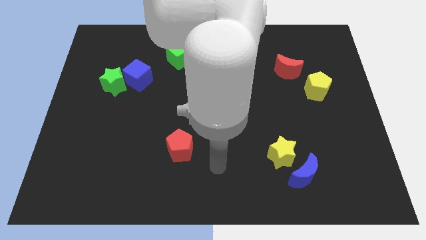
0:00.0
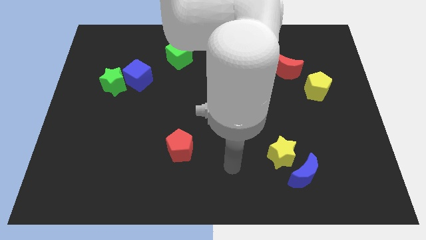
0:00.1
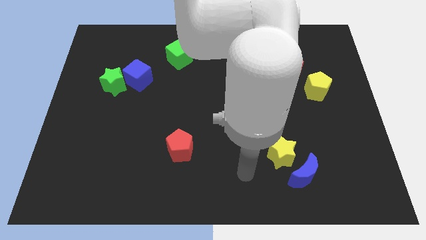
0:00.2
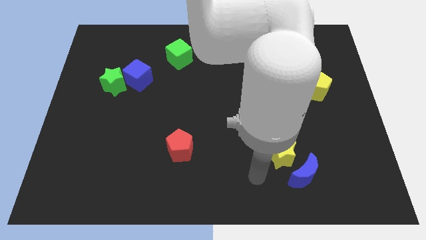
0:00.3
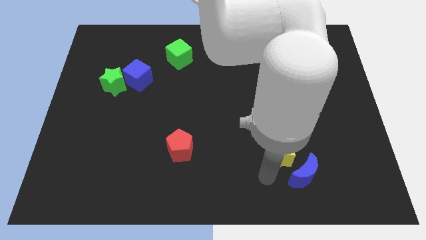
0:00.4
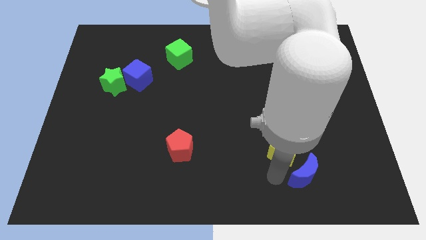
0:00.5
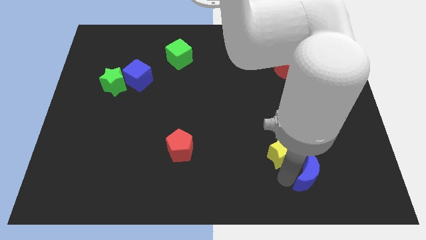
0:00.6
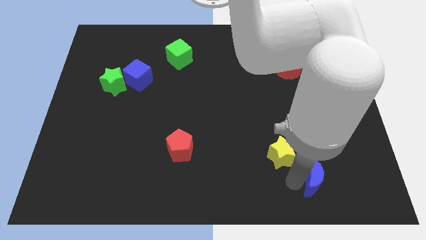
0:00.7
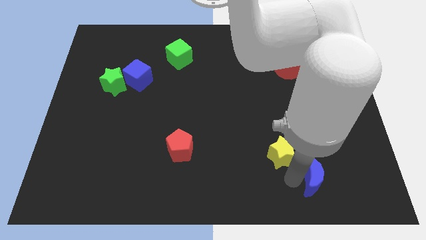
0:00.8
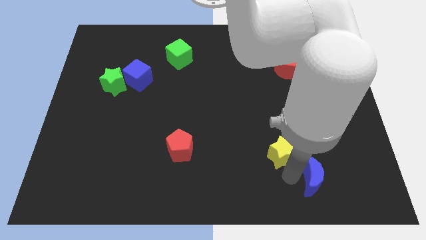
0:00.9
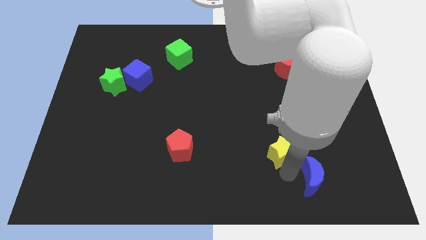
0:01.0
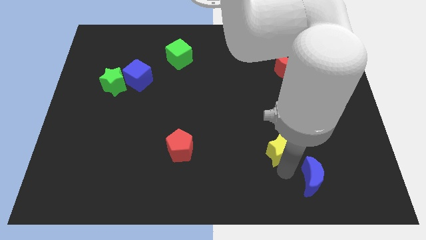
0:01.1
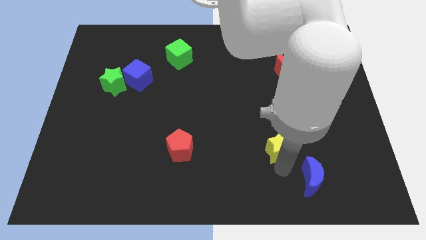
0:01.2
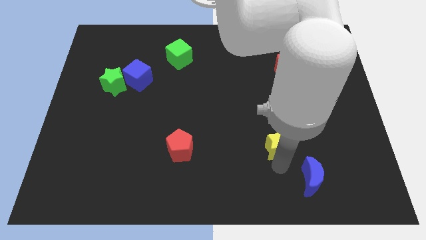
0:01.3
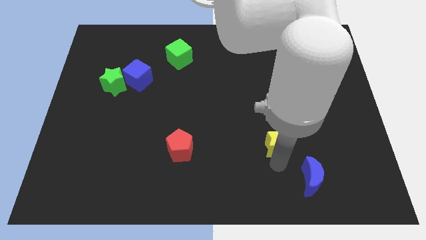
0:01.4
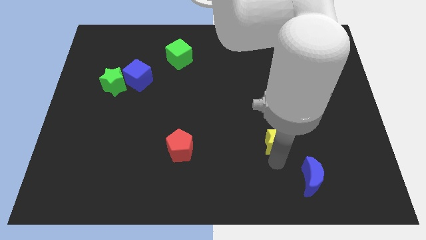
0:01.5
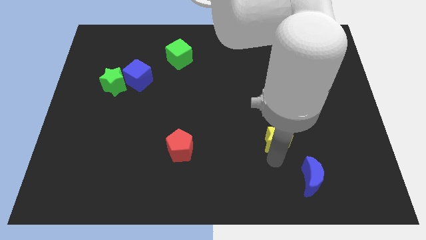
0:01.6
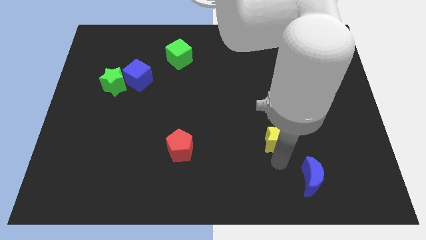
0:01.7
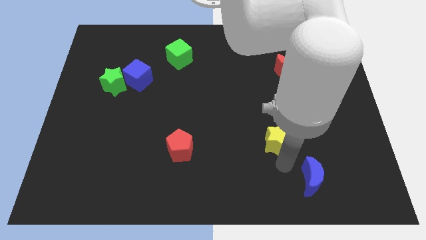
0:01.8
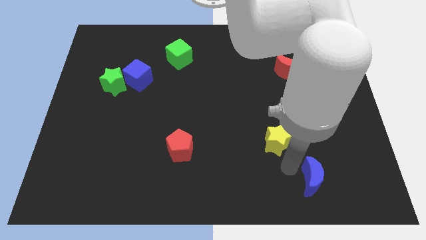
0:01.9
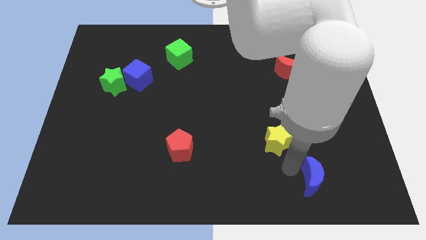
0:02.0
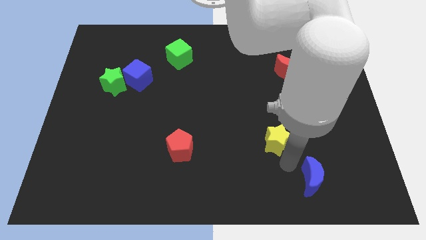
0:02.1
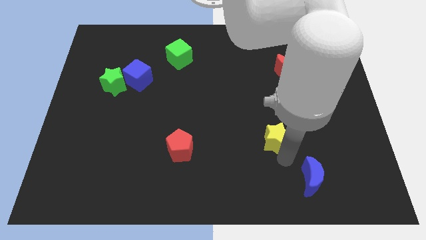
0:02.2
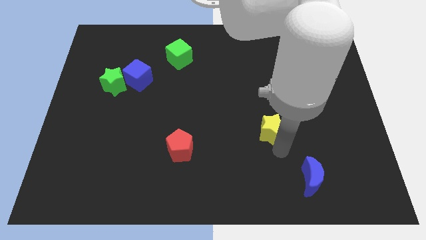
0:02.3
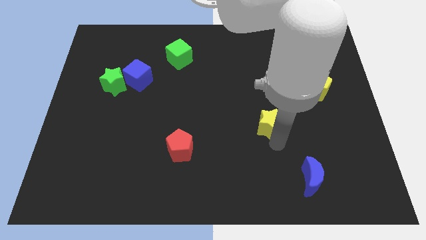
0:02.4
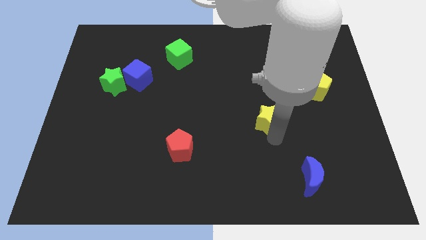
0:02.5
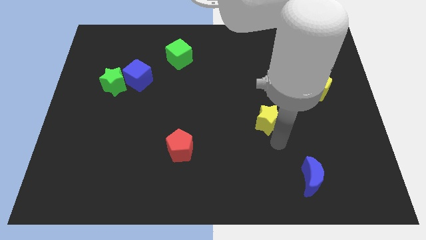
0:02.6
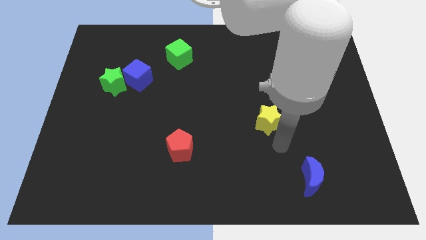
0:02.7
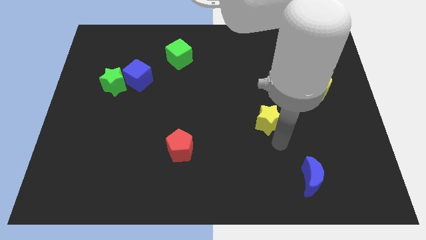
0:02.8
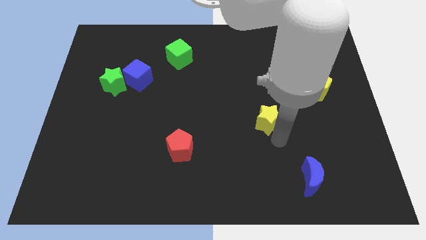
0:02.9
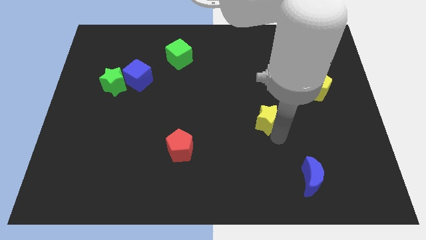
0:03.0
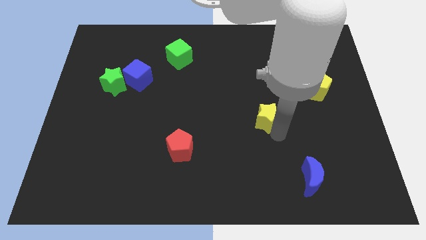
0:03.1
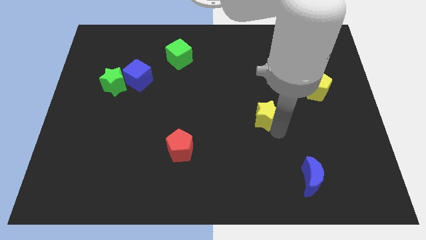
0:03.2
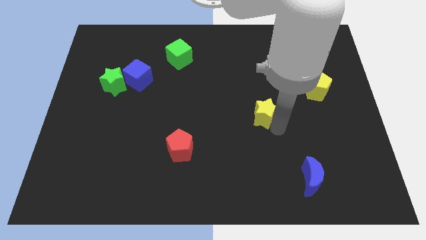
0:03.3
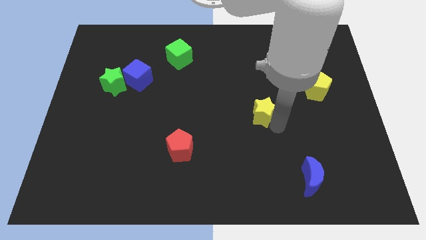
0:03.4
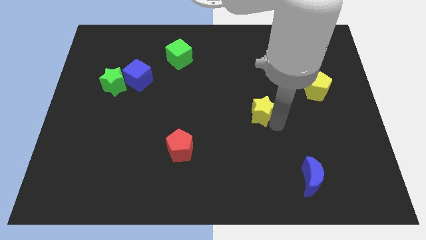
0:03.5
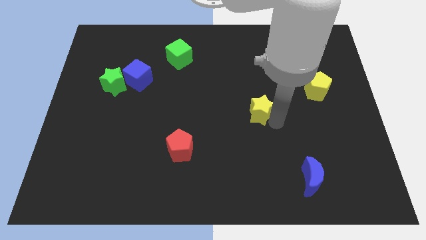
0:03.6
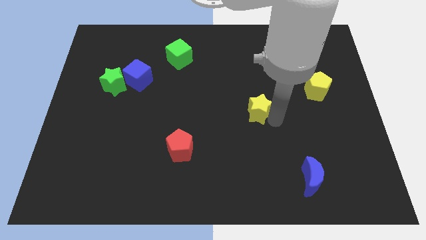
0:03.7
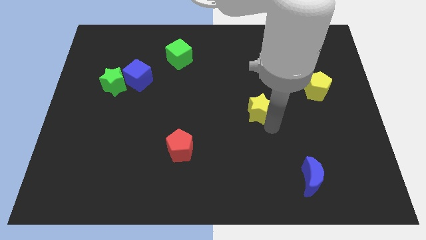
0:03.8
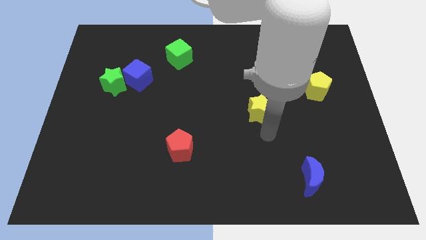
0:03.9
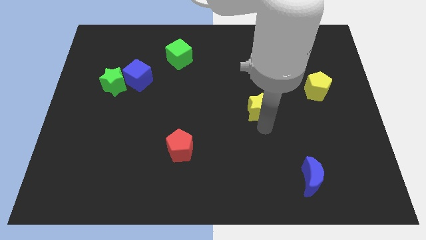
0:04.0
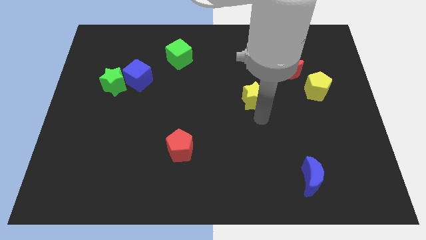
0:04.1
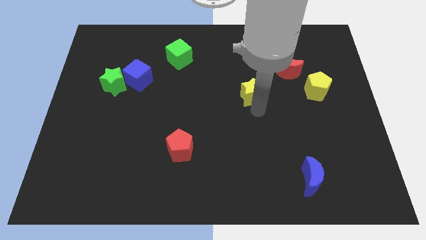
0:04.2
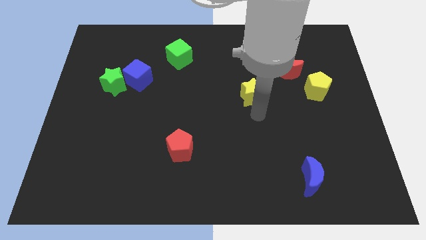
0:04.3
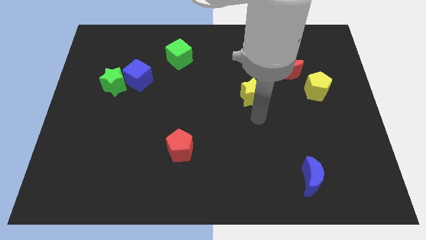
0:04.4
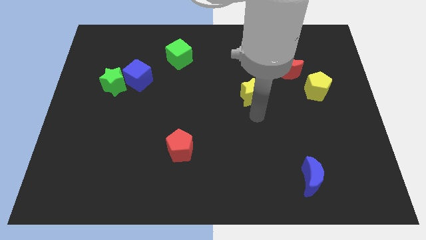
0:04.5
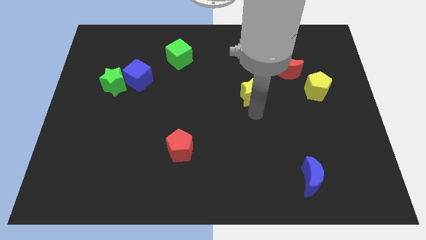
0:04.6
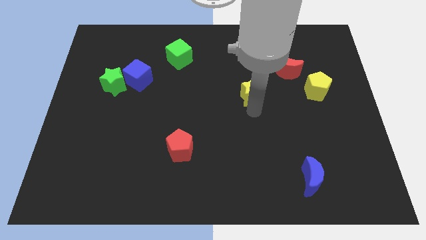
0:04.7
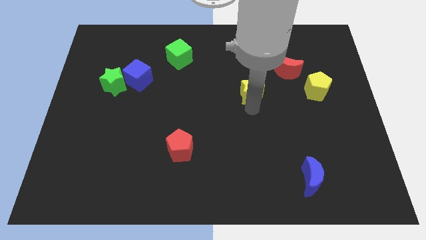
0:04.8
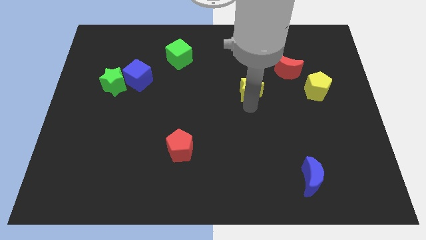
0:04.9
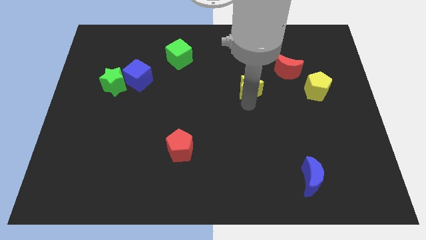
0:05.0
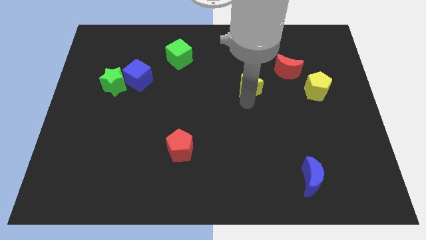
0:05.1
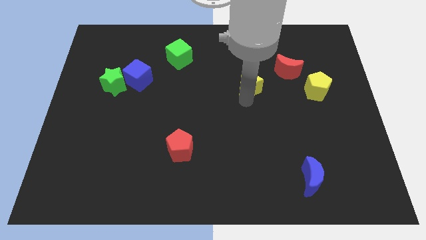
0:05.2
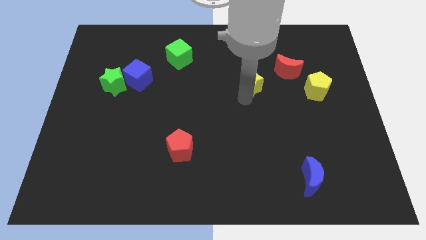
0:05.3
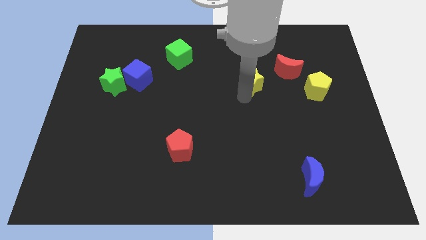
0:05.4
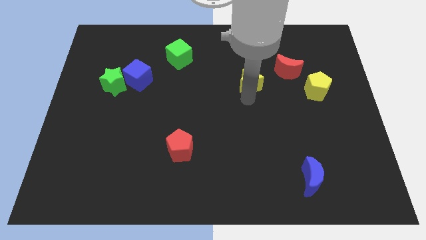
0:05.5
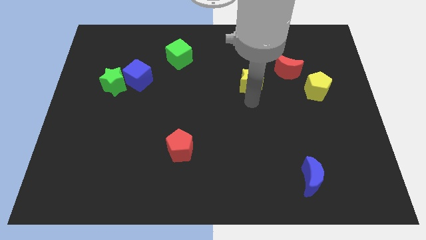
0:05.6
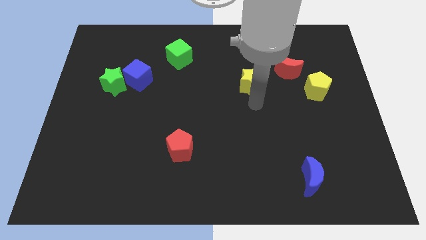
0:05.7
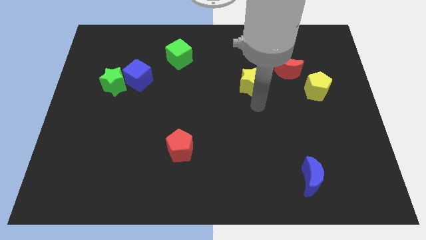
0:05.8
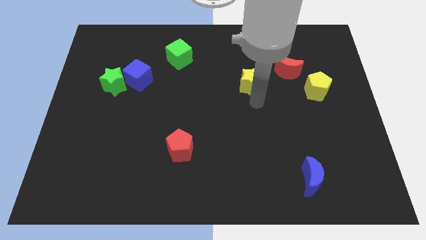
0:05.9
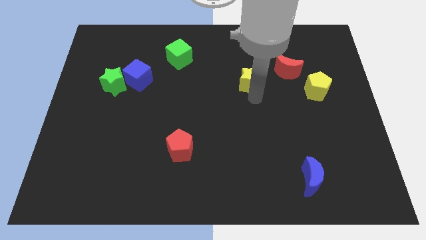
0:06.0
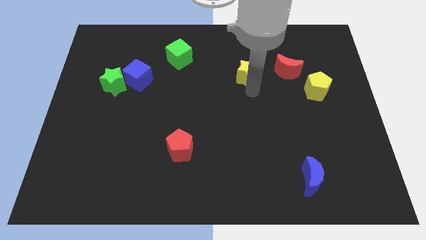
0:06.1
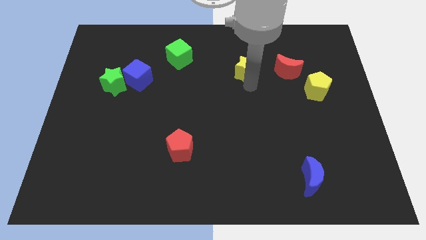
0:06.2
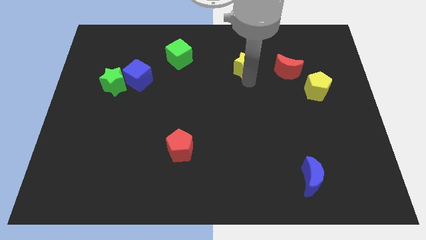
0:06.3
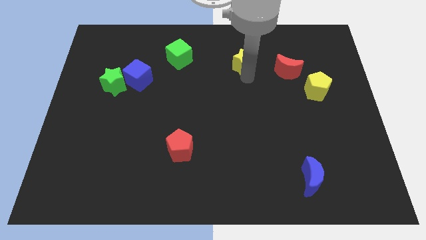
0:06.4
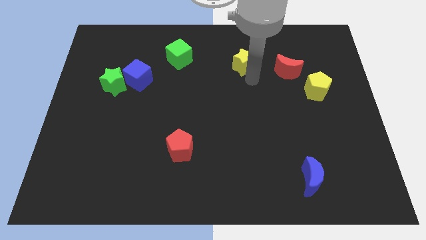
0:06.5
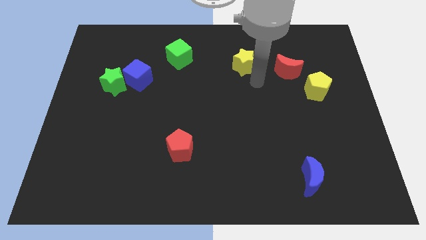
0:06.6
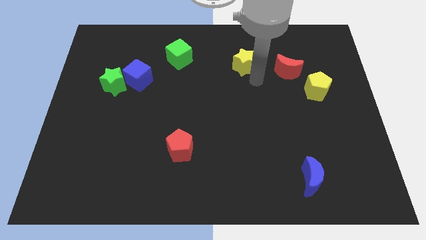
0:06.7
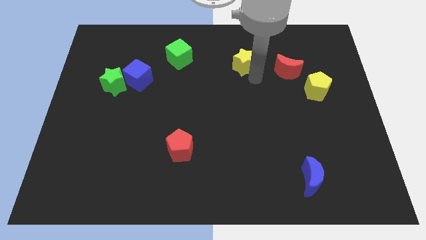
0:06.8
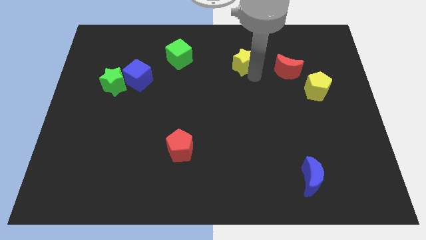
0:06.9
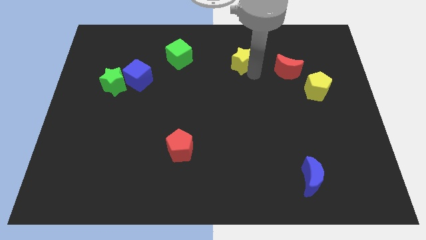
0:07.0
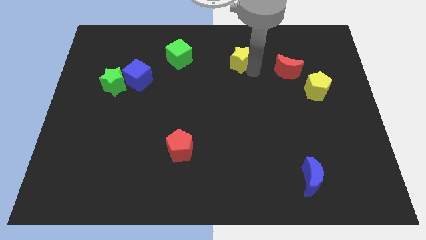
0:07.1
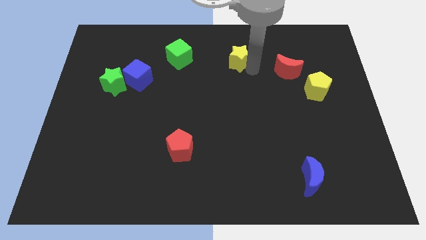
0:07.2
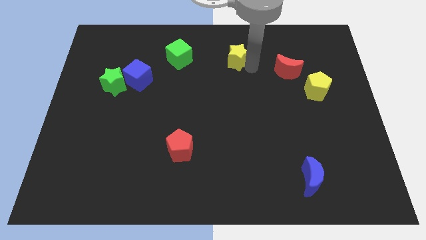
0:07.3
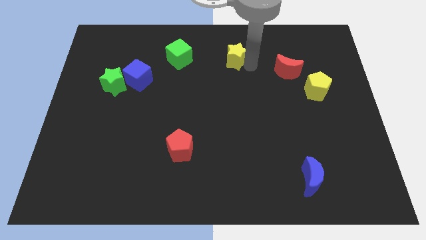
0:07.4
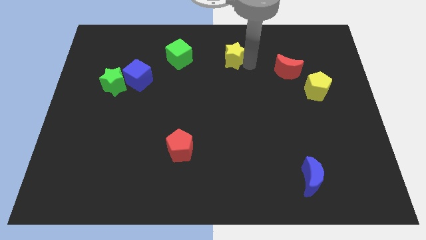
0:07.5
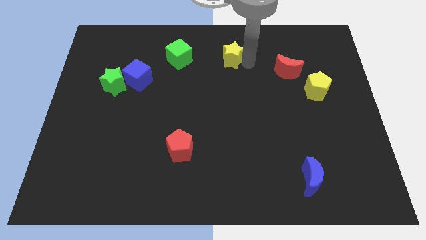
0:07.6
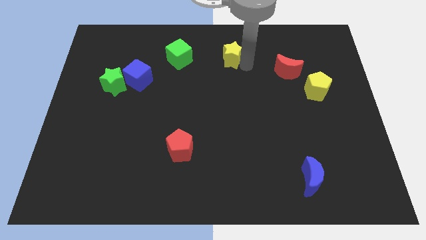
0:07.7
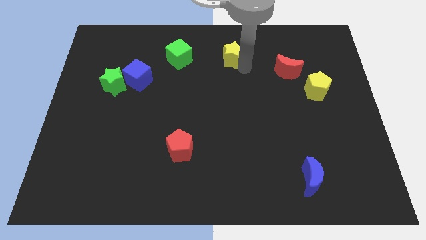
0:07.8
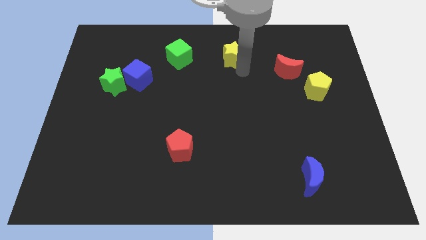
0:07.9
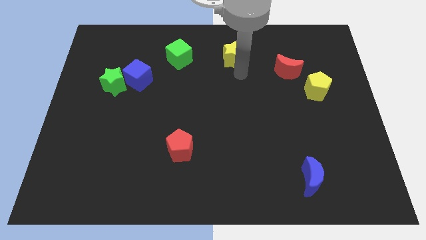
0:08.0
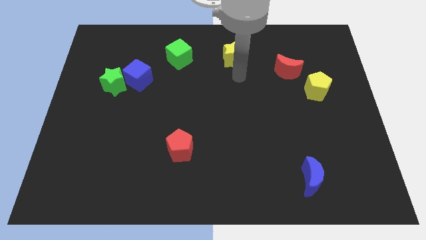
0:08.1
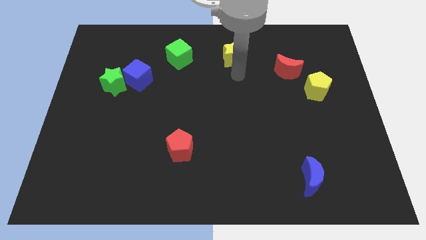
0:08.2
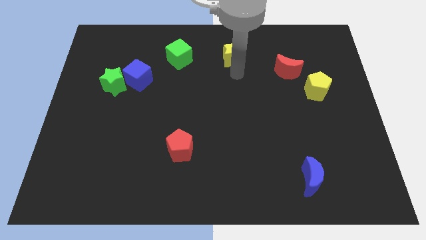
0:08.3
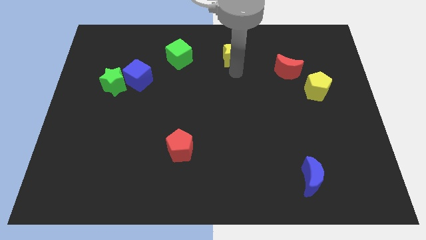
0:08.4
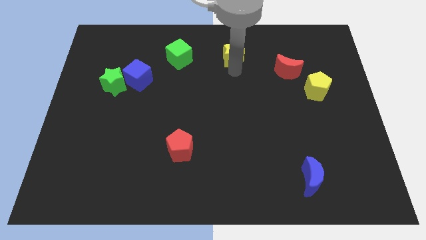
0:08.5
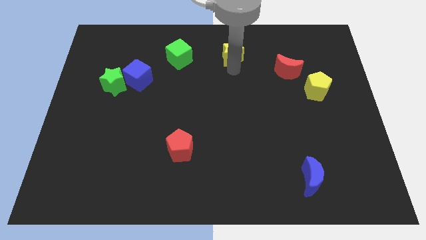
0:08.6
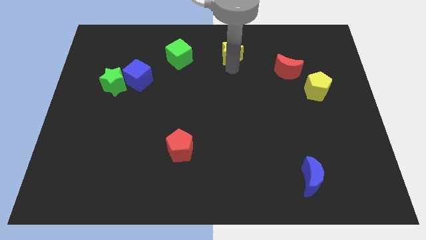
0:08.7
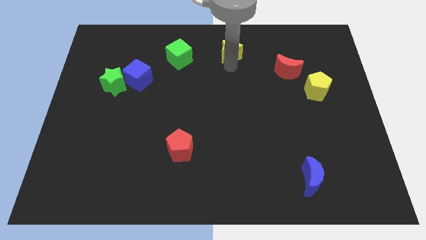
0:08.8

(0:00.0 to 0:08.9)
put the yellow star to the towards your base
